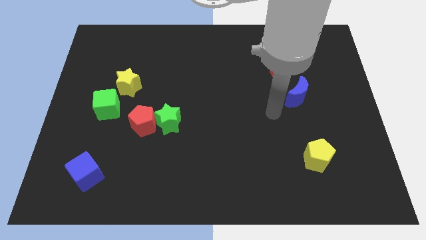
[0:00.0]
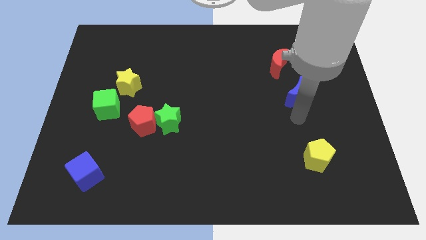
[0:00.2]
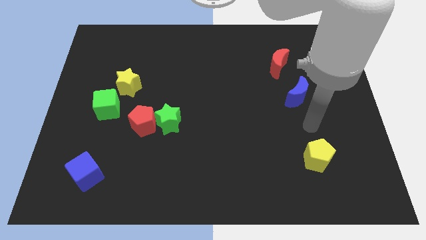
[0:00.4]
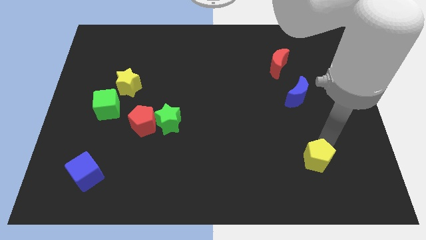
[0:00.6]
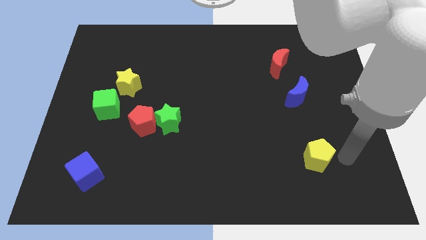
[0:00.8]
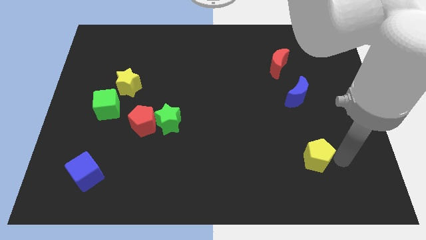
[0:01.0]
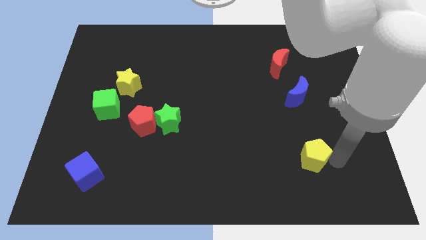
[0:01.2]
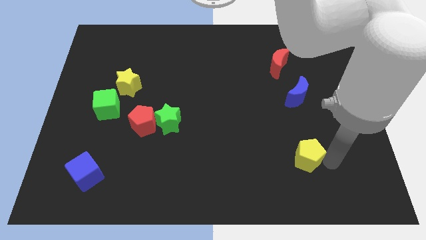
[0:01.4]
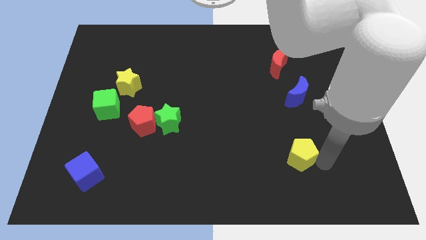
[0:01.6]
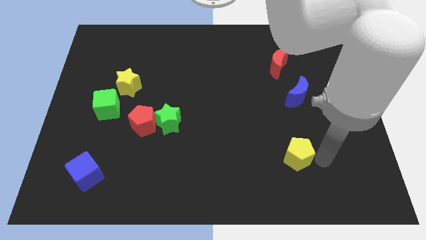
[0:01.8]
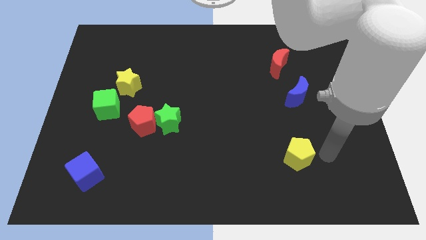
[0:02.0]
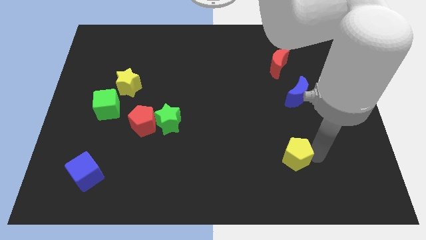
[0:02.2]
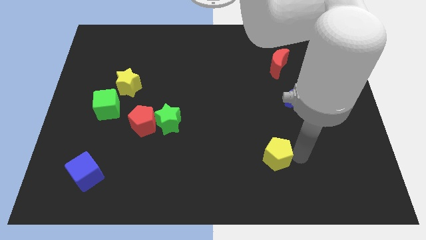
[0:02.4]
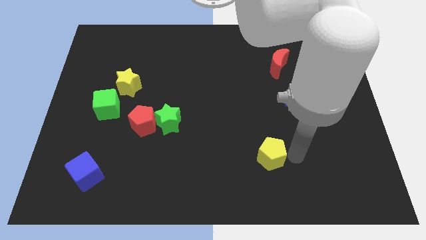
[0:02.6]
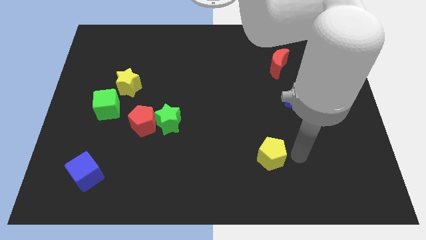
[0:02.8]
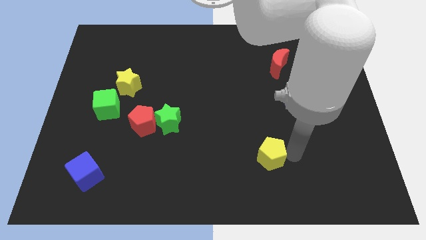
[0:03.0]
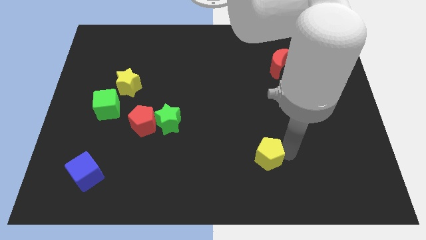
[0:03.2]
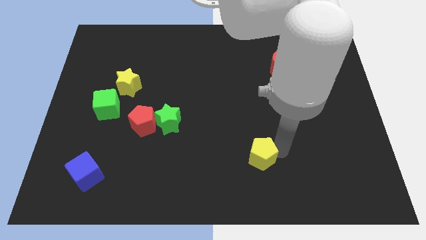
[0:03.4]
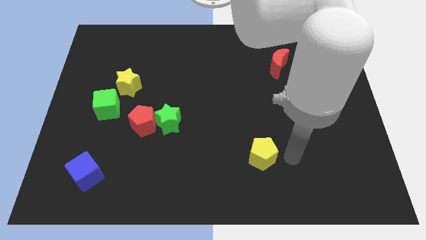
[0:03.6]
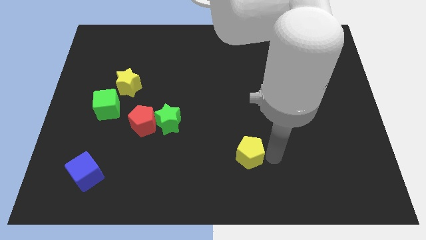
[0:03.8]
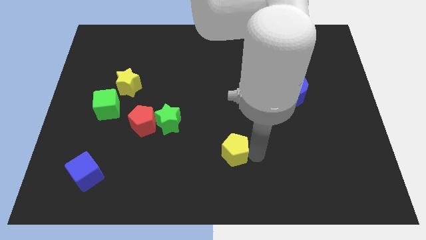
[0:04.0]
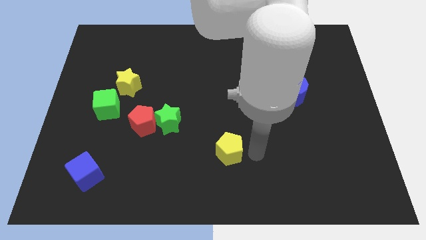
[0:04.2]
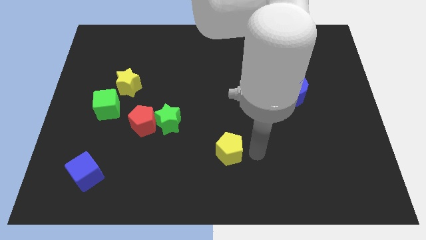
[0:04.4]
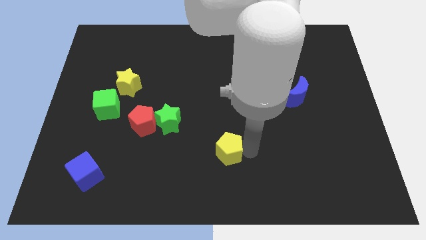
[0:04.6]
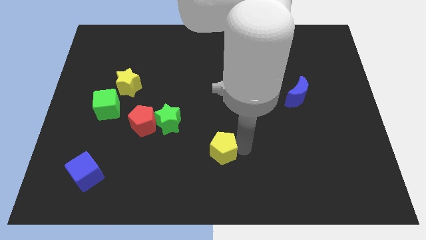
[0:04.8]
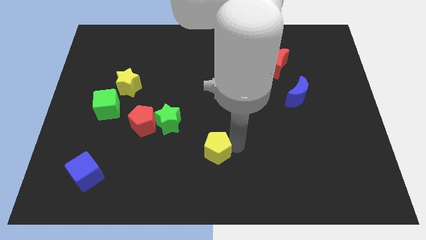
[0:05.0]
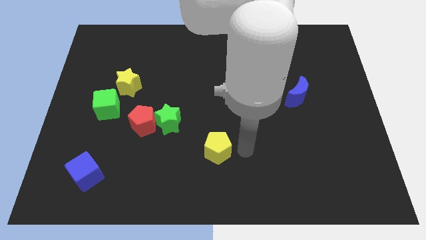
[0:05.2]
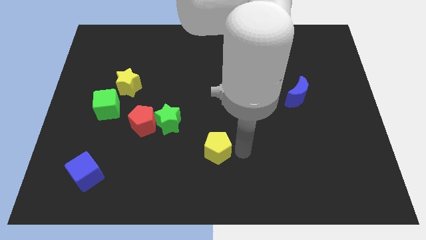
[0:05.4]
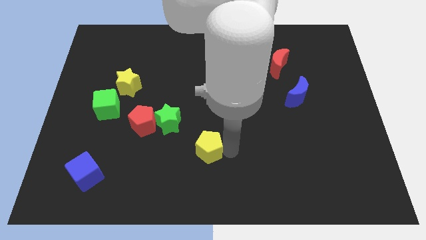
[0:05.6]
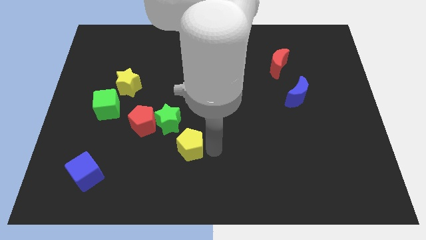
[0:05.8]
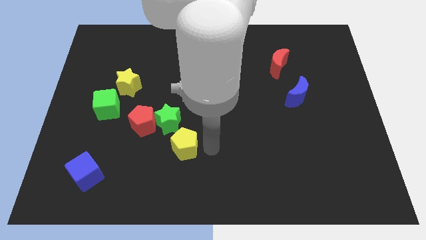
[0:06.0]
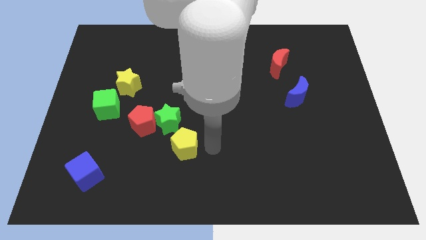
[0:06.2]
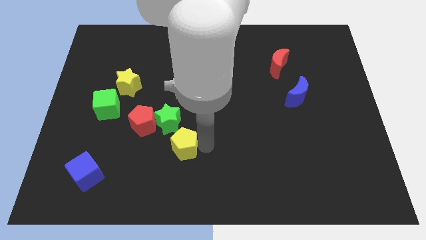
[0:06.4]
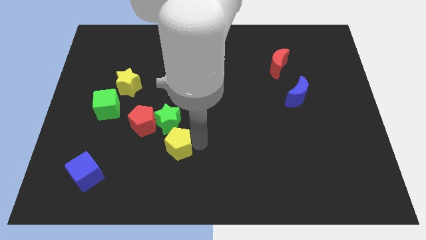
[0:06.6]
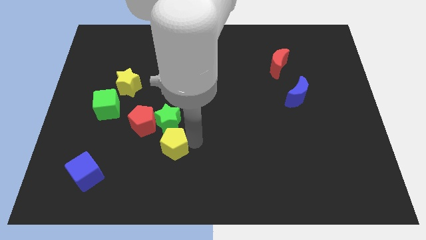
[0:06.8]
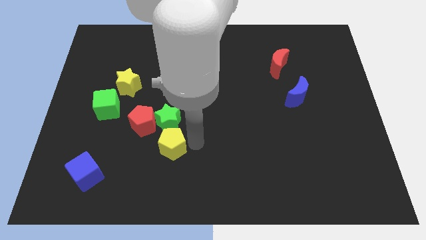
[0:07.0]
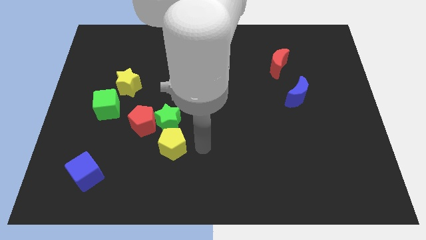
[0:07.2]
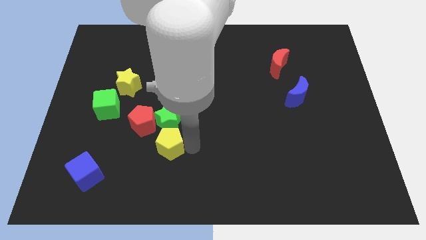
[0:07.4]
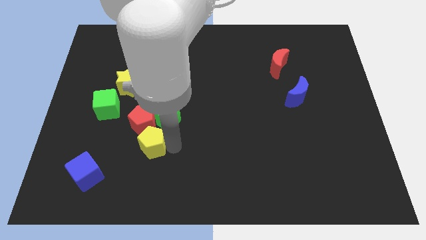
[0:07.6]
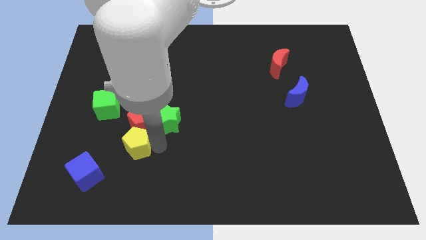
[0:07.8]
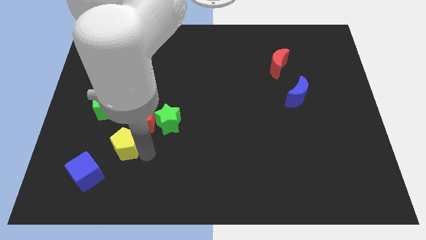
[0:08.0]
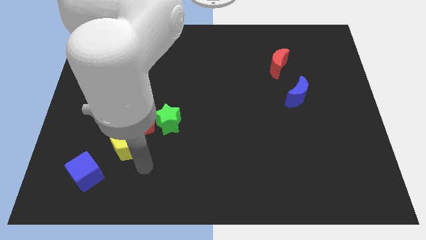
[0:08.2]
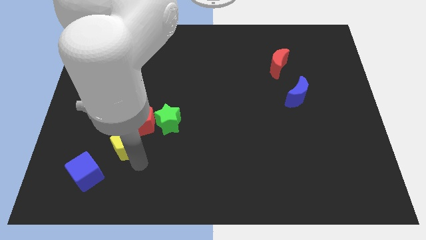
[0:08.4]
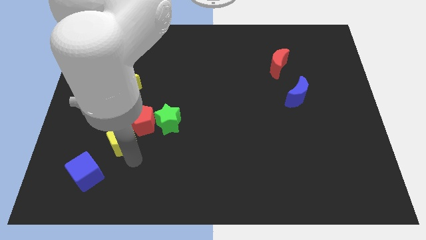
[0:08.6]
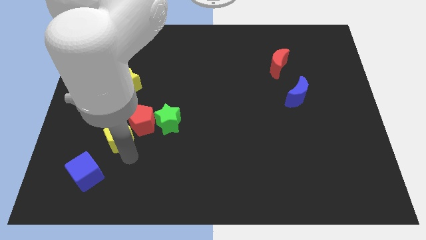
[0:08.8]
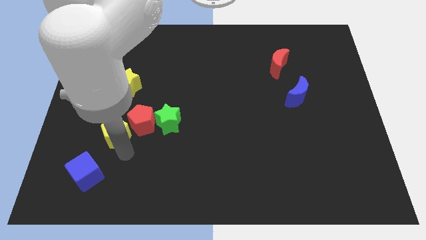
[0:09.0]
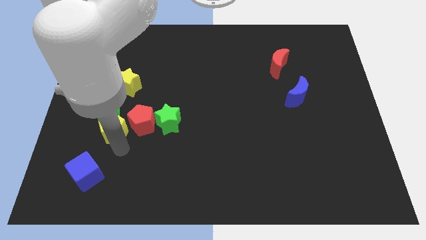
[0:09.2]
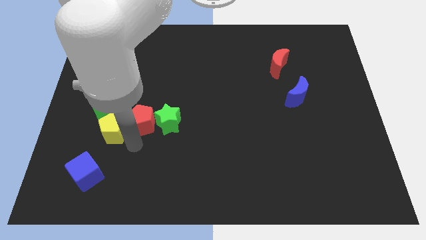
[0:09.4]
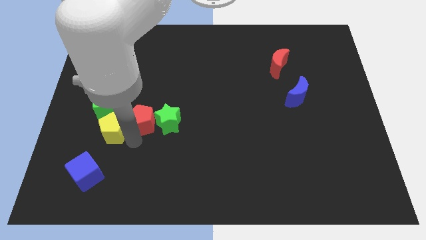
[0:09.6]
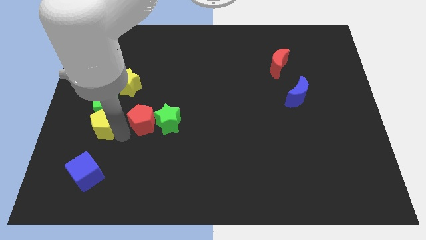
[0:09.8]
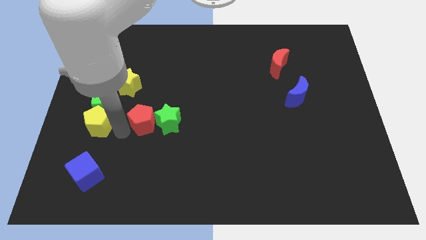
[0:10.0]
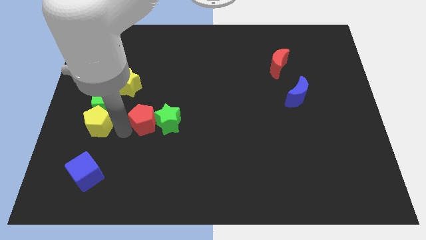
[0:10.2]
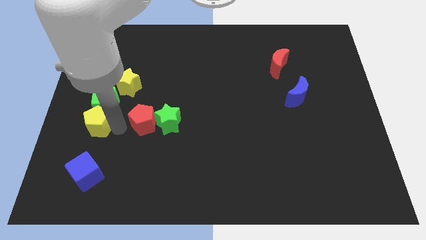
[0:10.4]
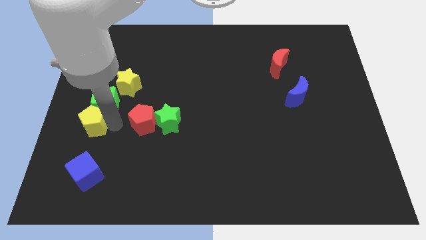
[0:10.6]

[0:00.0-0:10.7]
put the yellow pentagon to the left side of the board

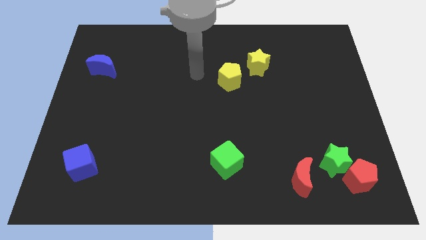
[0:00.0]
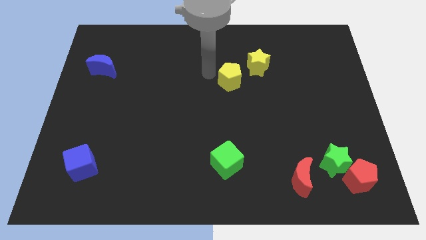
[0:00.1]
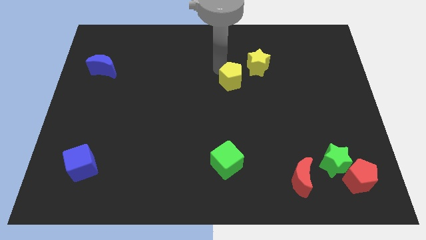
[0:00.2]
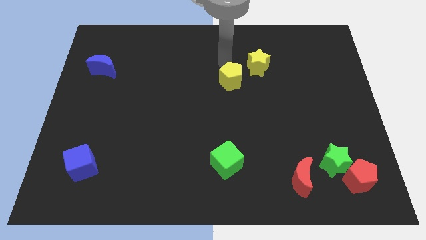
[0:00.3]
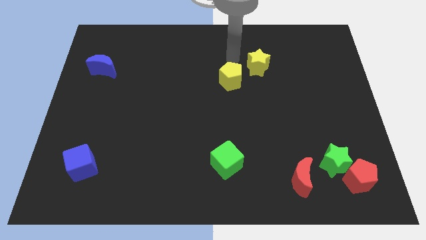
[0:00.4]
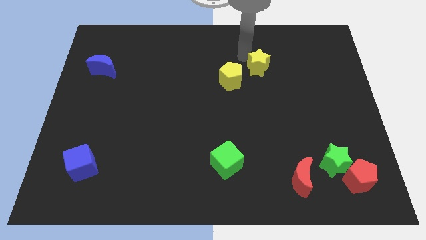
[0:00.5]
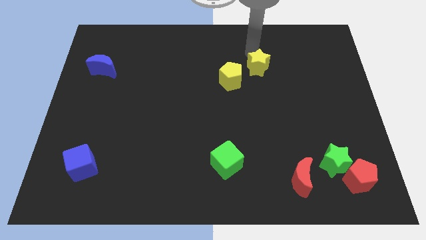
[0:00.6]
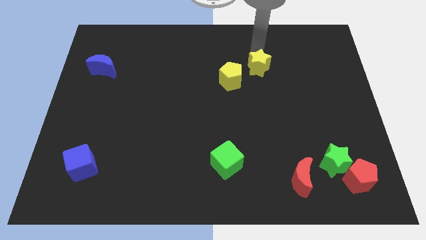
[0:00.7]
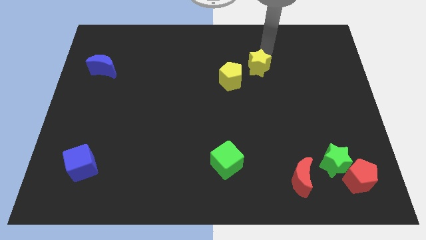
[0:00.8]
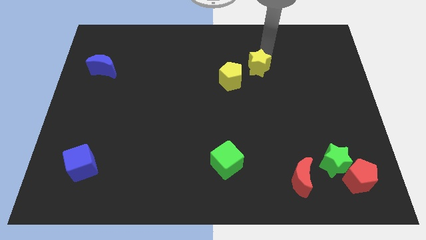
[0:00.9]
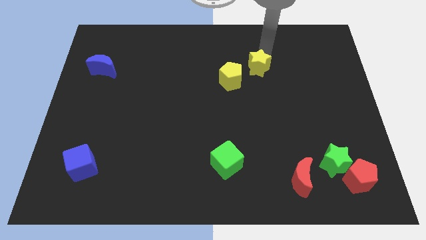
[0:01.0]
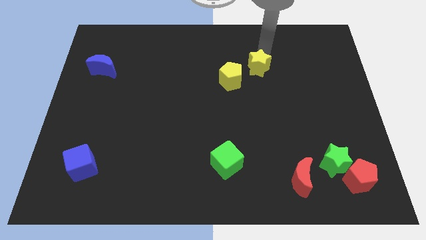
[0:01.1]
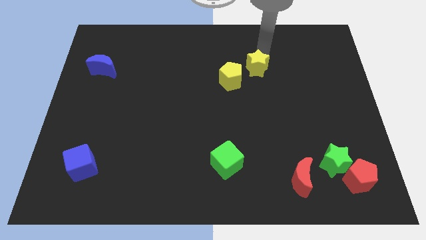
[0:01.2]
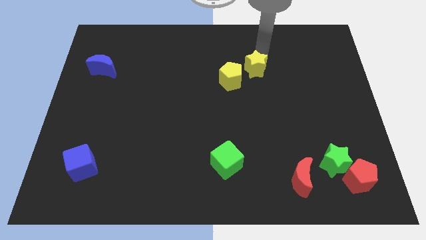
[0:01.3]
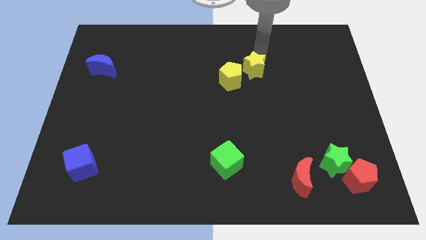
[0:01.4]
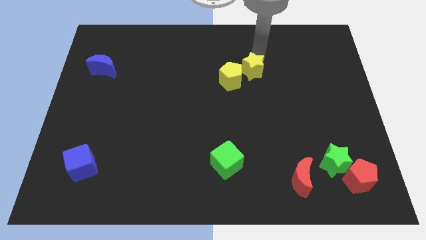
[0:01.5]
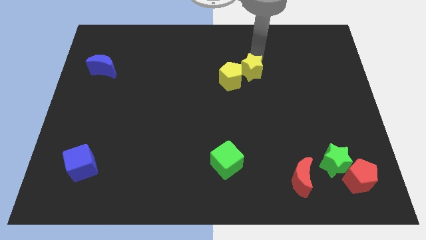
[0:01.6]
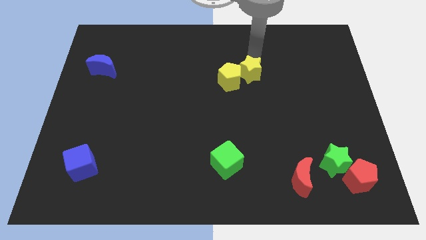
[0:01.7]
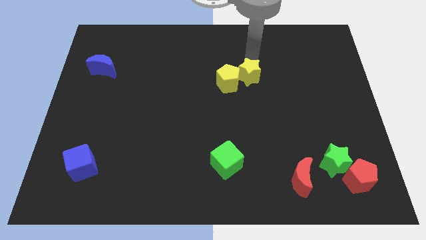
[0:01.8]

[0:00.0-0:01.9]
slide the yellow star to the middle
